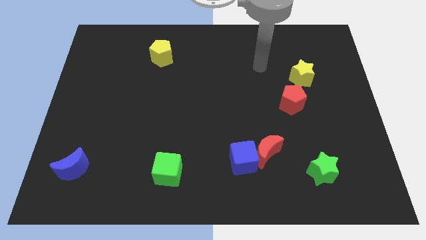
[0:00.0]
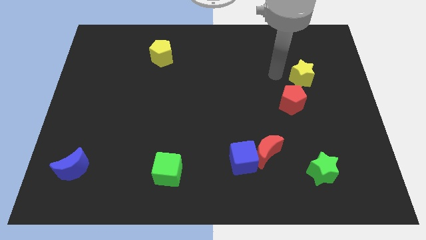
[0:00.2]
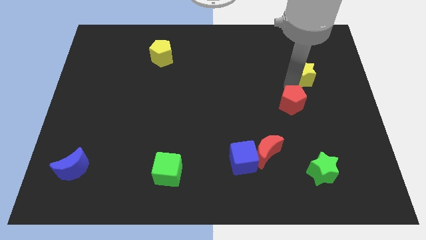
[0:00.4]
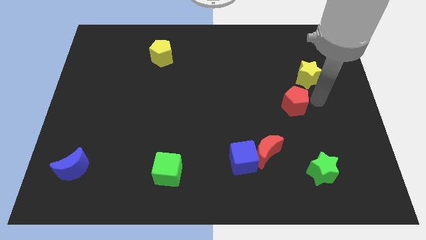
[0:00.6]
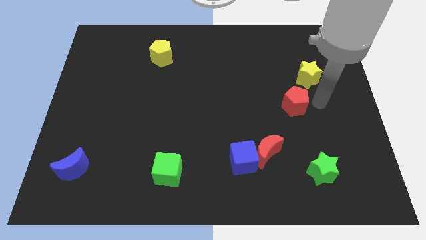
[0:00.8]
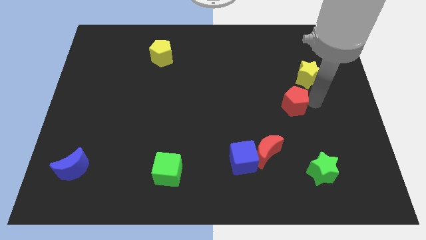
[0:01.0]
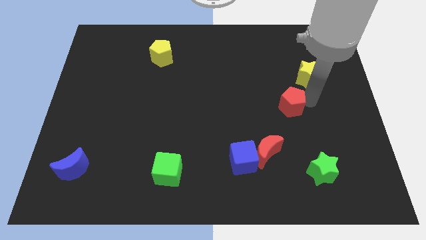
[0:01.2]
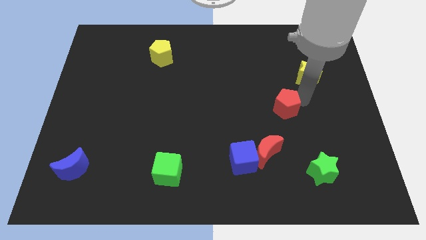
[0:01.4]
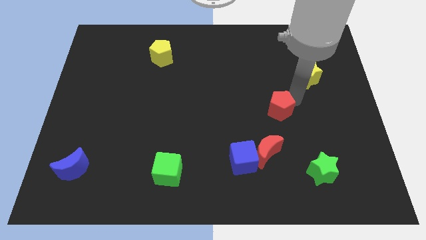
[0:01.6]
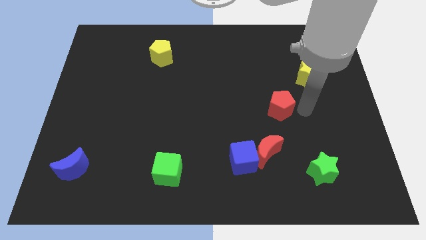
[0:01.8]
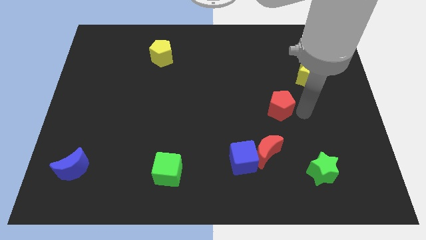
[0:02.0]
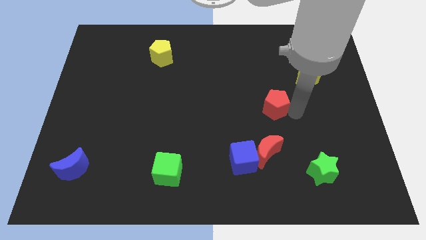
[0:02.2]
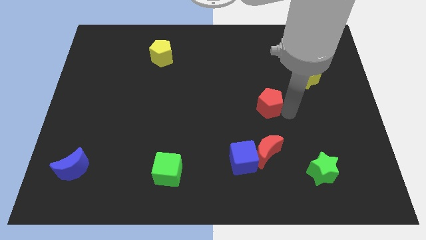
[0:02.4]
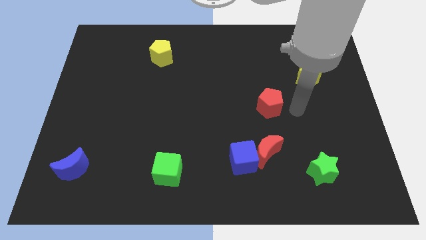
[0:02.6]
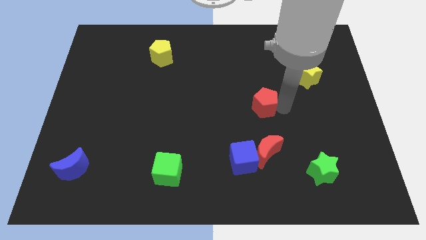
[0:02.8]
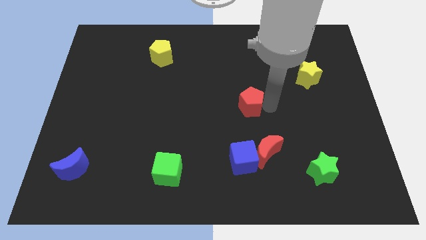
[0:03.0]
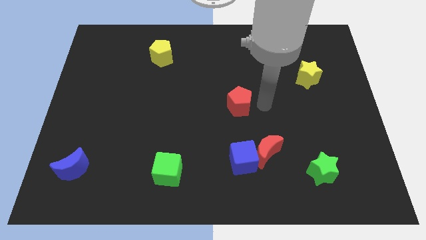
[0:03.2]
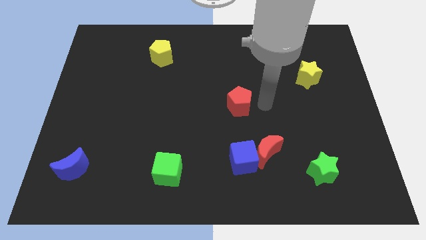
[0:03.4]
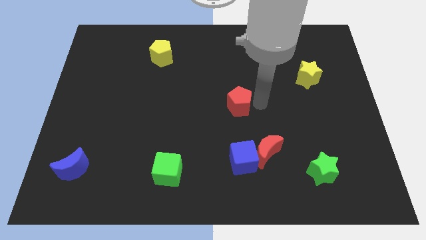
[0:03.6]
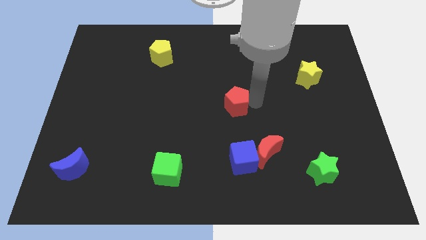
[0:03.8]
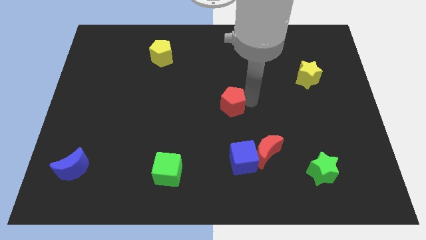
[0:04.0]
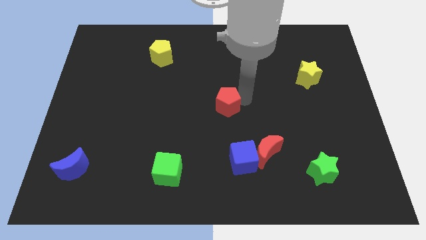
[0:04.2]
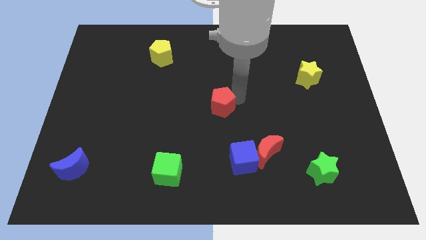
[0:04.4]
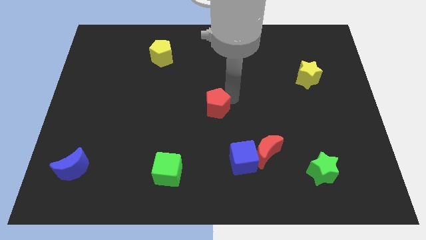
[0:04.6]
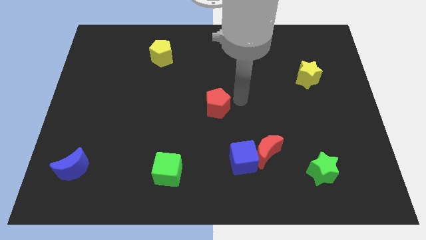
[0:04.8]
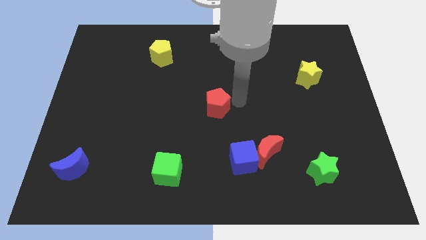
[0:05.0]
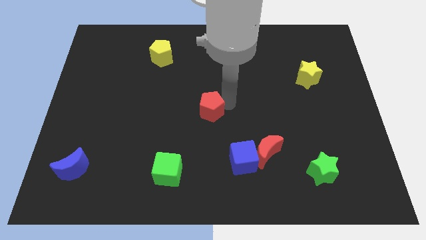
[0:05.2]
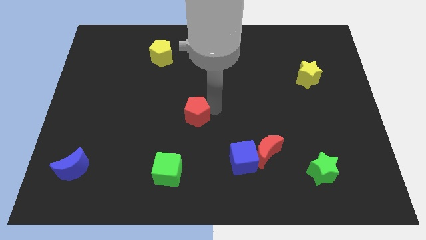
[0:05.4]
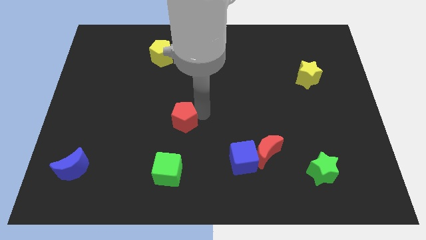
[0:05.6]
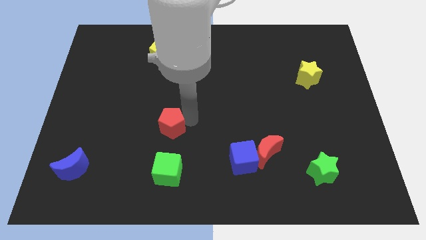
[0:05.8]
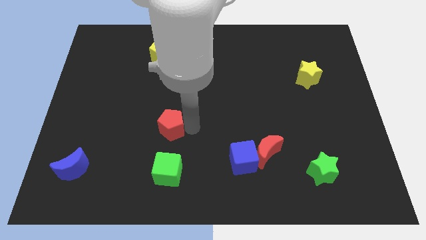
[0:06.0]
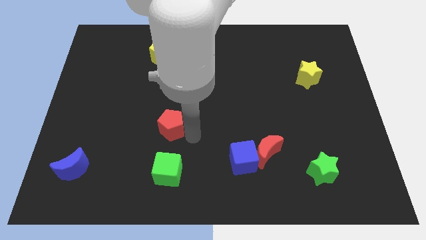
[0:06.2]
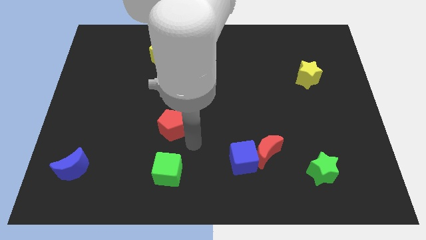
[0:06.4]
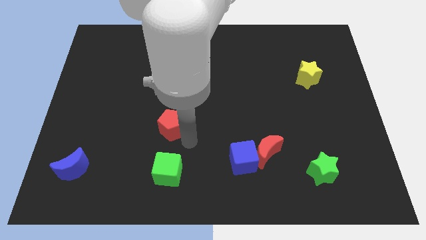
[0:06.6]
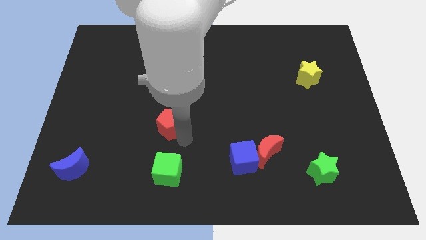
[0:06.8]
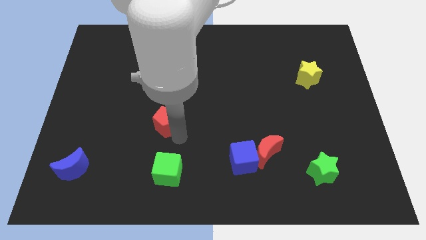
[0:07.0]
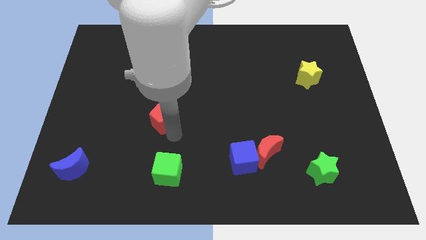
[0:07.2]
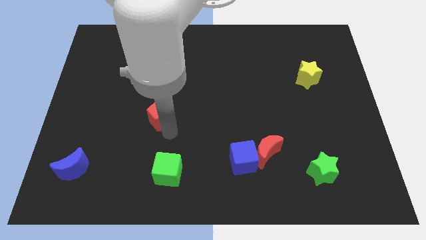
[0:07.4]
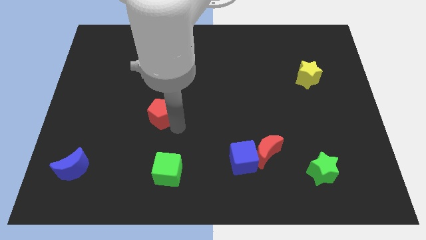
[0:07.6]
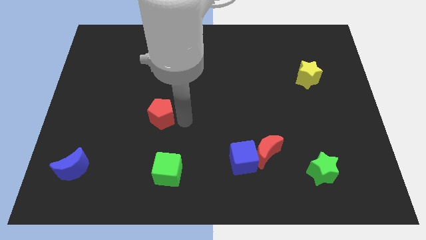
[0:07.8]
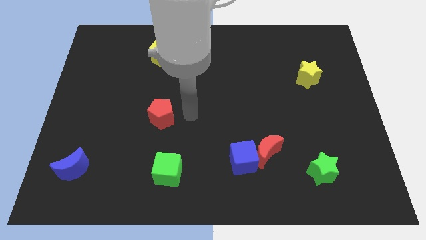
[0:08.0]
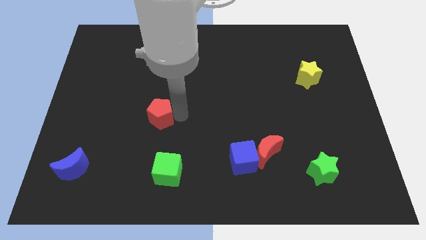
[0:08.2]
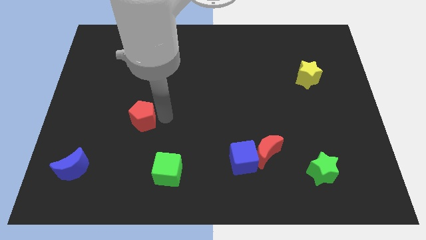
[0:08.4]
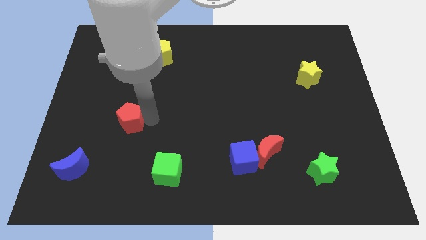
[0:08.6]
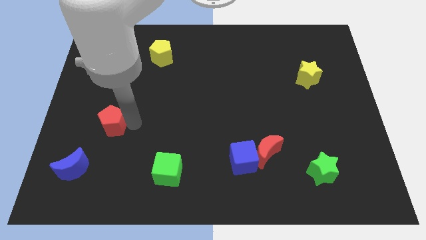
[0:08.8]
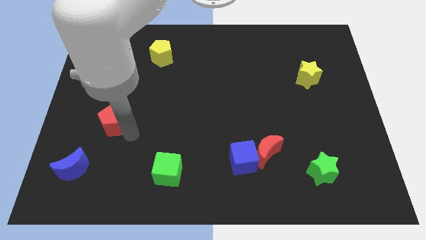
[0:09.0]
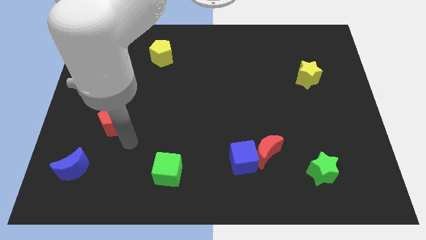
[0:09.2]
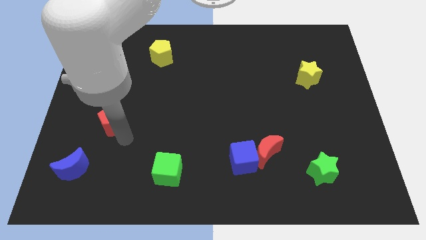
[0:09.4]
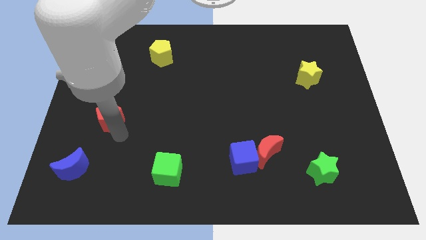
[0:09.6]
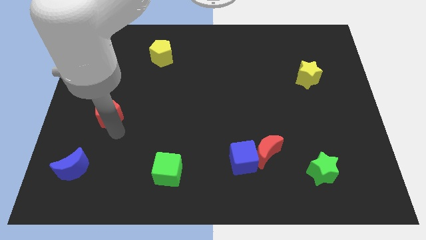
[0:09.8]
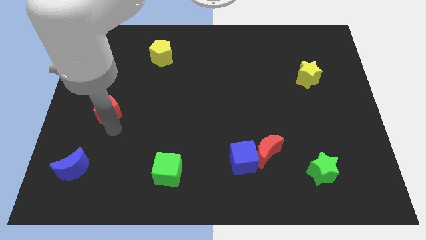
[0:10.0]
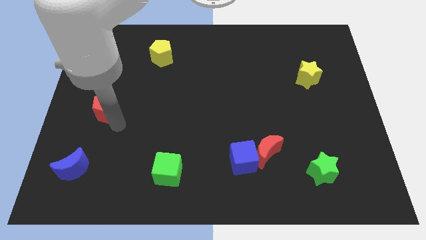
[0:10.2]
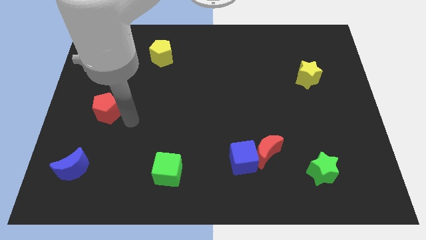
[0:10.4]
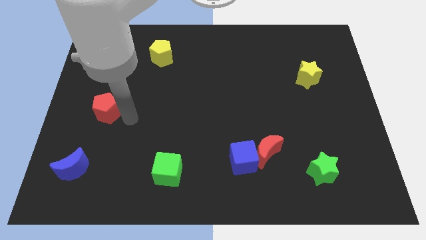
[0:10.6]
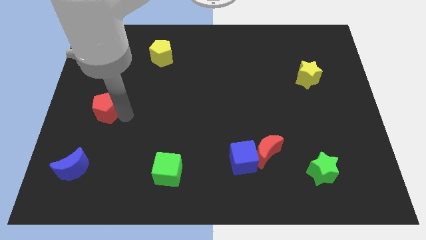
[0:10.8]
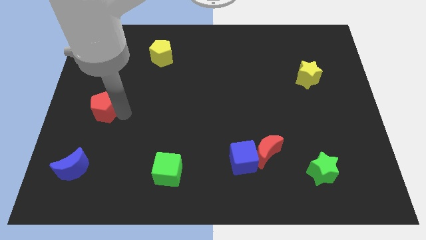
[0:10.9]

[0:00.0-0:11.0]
slide the red pentagon to the center left

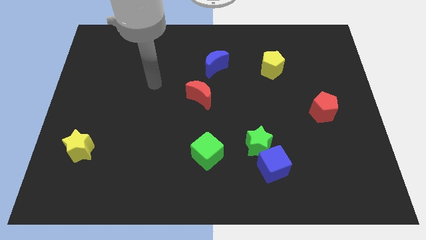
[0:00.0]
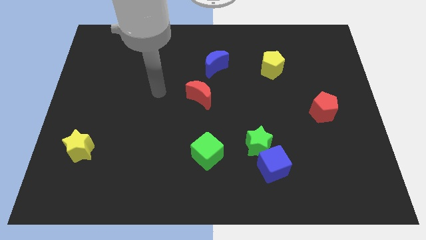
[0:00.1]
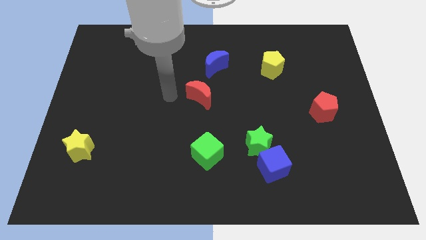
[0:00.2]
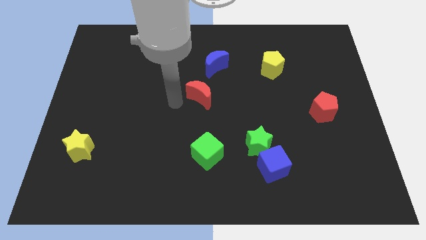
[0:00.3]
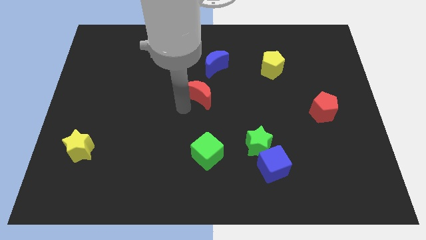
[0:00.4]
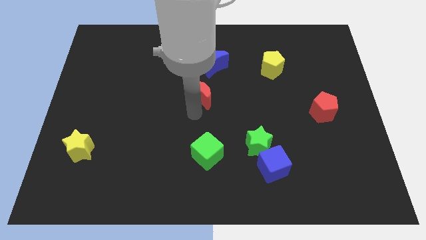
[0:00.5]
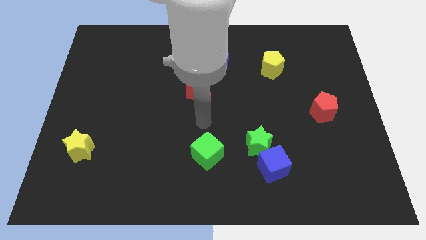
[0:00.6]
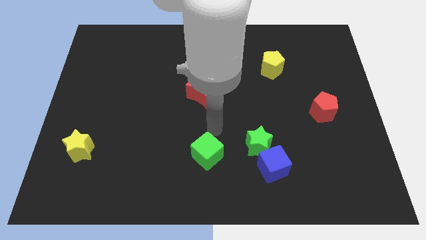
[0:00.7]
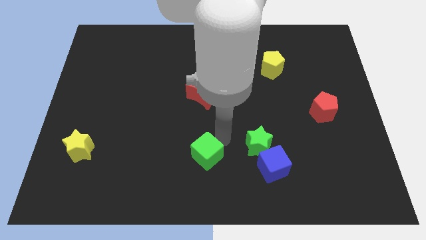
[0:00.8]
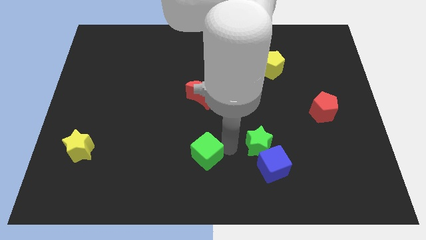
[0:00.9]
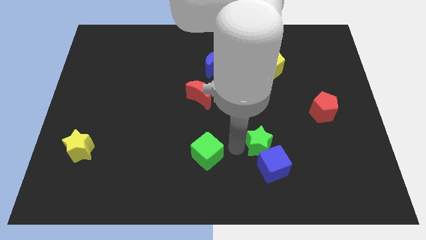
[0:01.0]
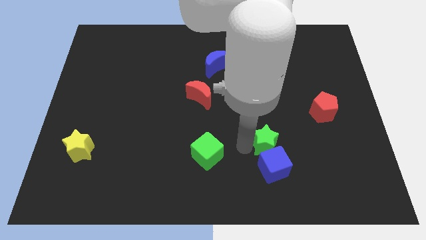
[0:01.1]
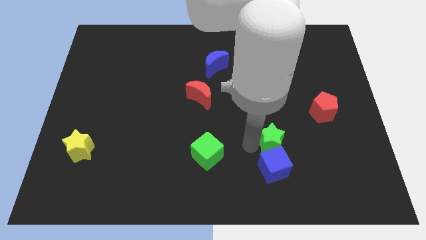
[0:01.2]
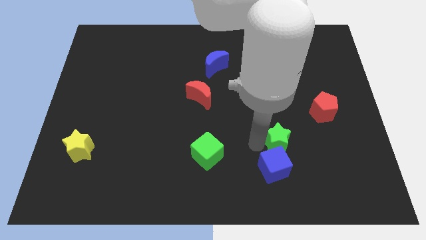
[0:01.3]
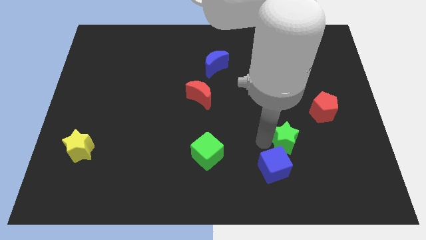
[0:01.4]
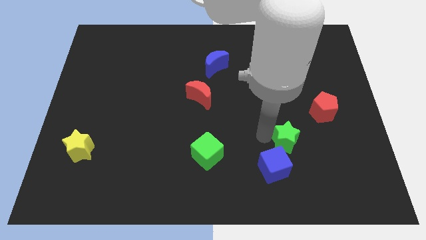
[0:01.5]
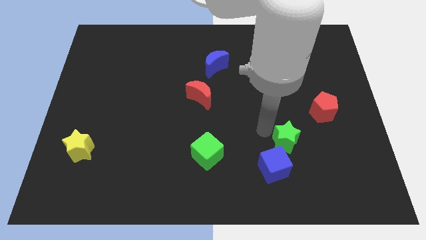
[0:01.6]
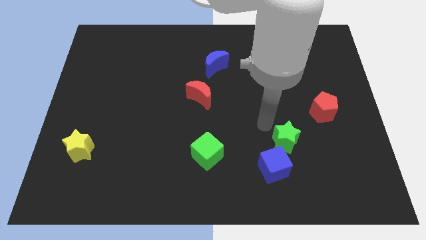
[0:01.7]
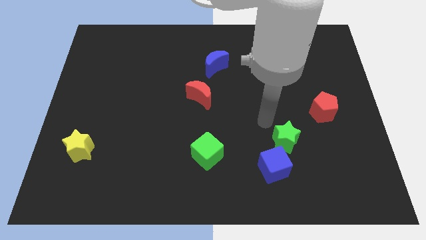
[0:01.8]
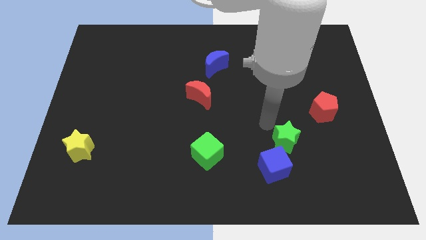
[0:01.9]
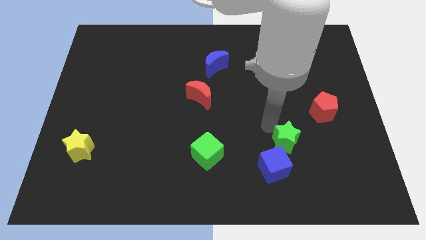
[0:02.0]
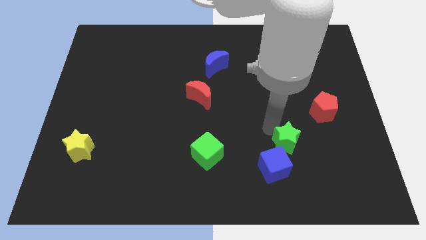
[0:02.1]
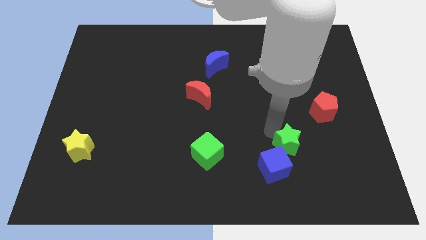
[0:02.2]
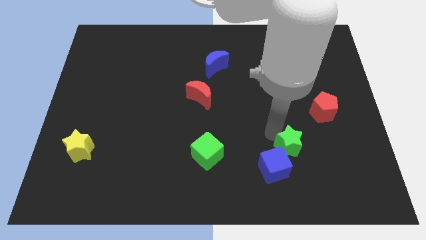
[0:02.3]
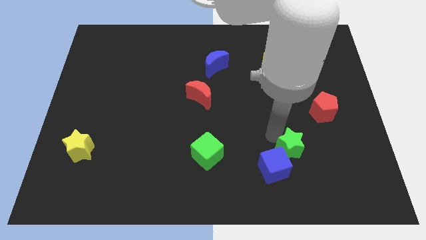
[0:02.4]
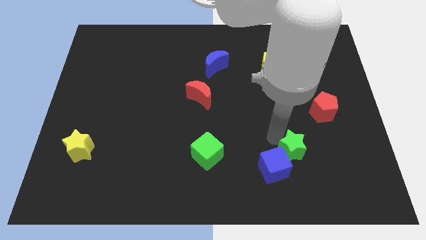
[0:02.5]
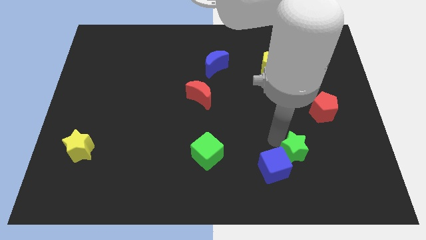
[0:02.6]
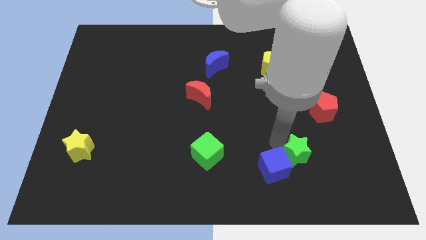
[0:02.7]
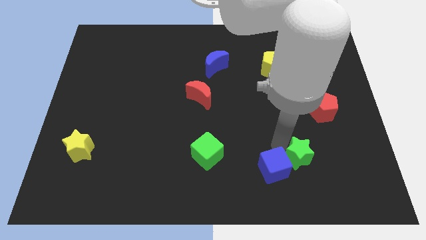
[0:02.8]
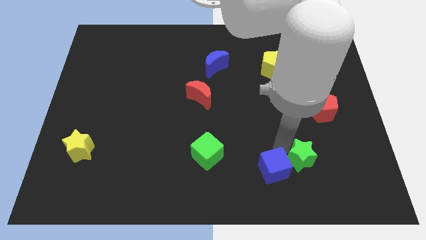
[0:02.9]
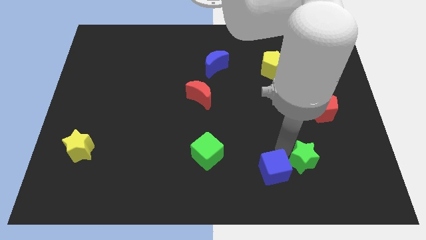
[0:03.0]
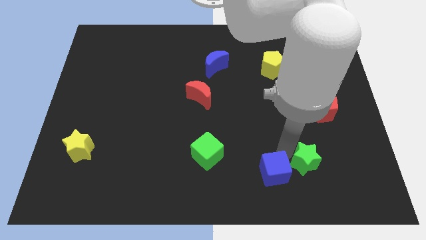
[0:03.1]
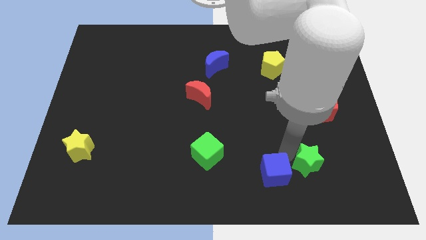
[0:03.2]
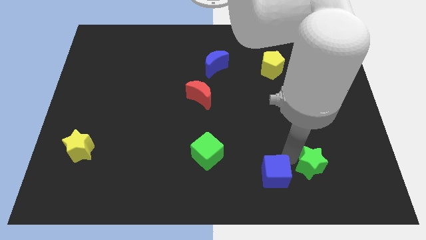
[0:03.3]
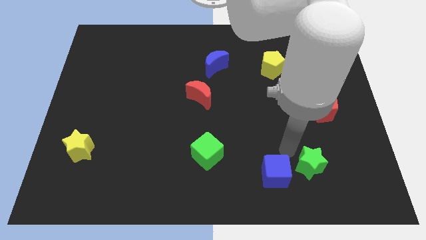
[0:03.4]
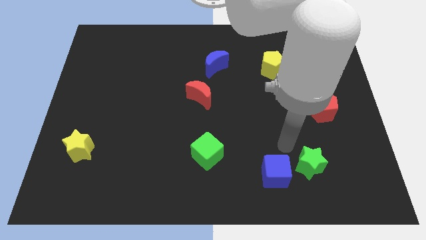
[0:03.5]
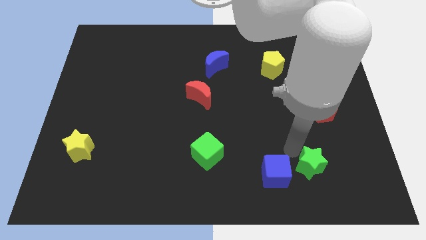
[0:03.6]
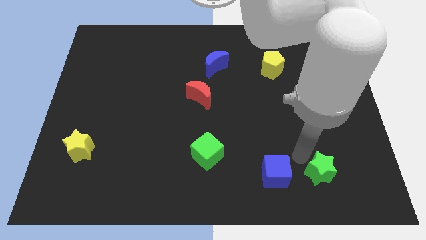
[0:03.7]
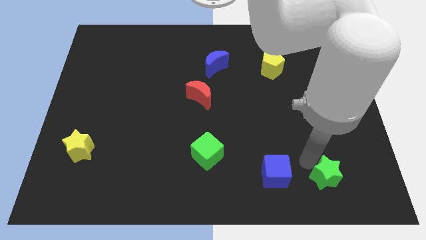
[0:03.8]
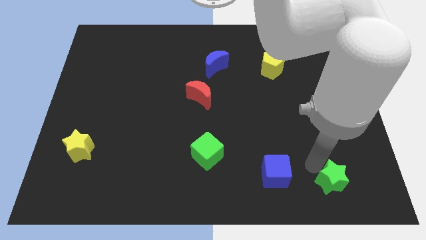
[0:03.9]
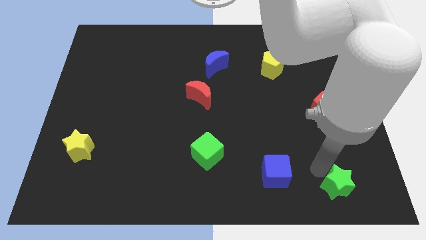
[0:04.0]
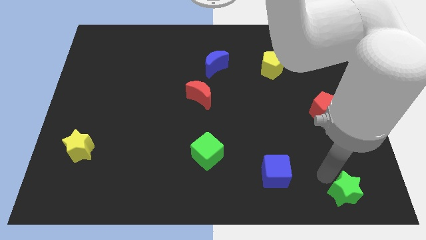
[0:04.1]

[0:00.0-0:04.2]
put the green star to the bottom right corner
